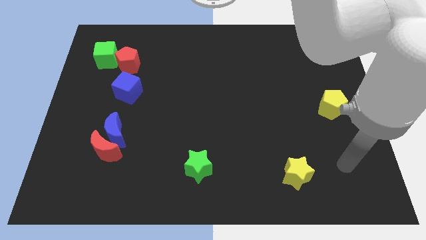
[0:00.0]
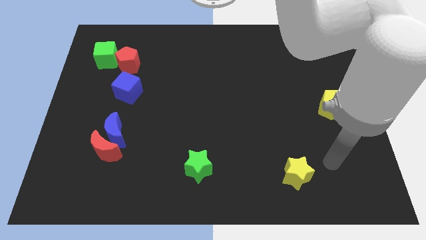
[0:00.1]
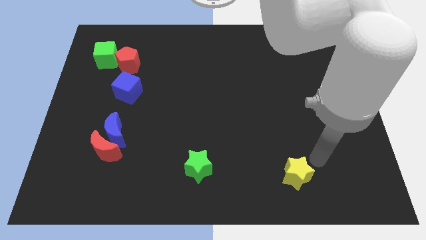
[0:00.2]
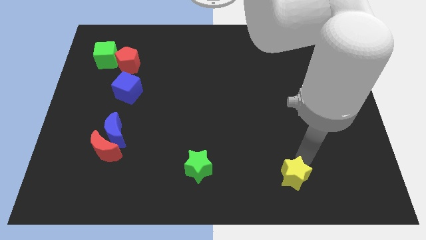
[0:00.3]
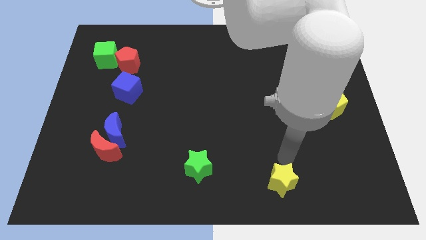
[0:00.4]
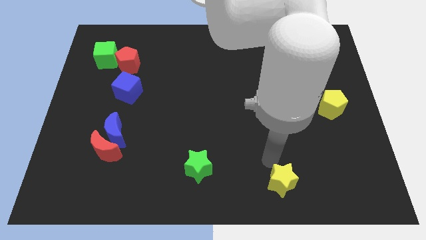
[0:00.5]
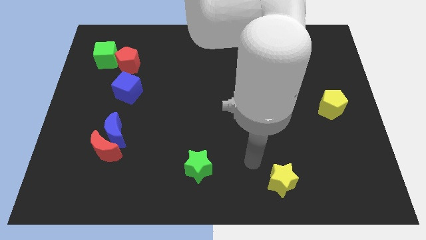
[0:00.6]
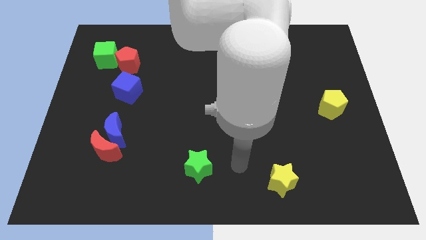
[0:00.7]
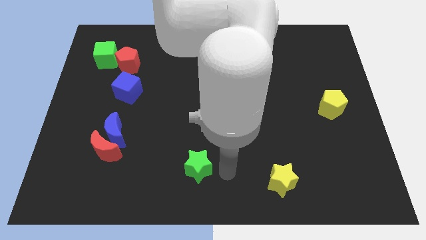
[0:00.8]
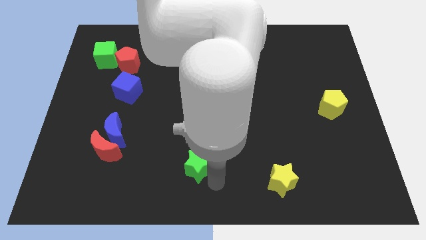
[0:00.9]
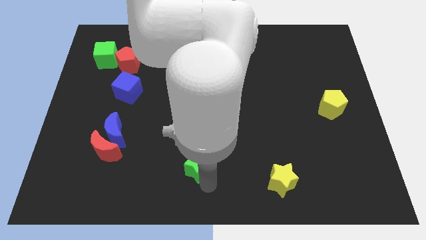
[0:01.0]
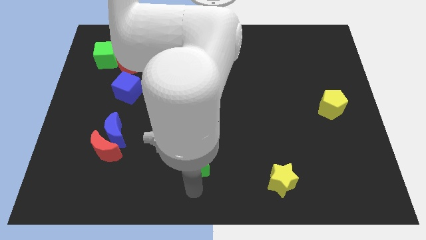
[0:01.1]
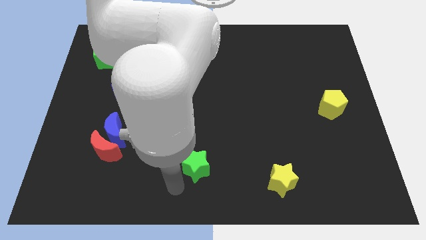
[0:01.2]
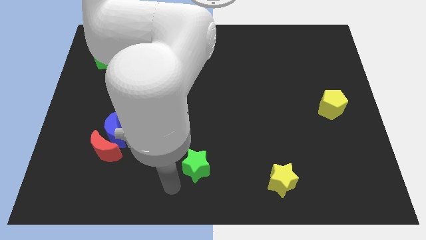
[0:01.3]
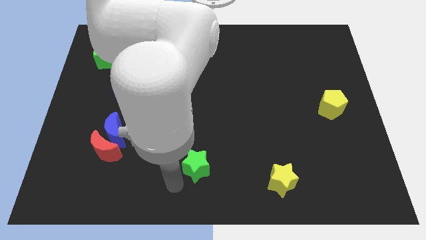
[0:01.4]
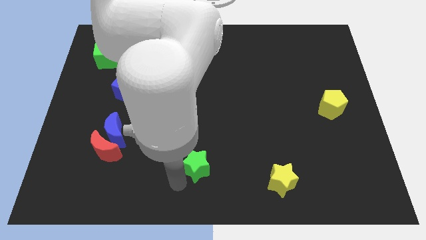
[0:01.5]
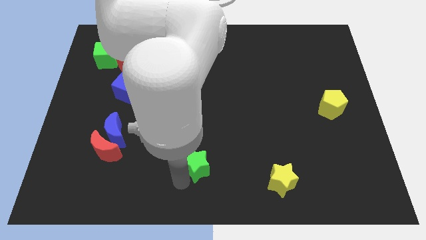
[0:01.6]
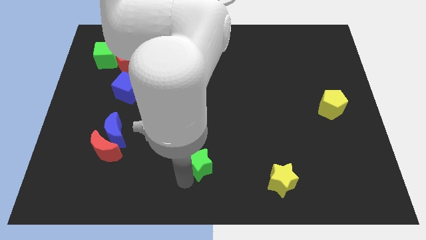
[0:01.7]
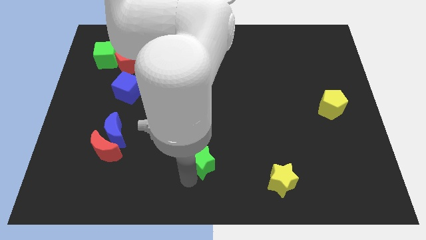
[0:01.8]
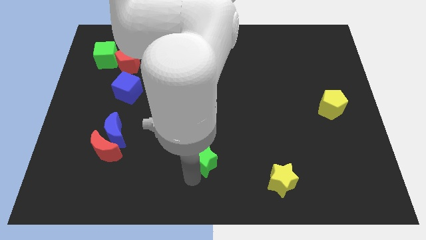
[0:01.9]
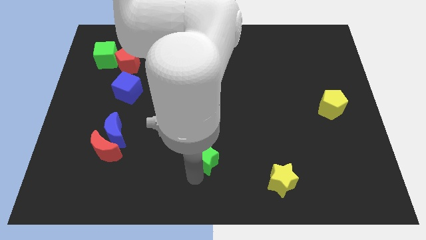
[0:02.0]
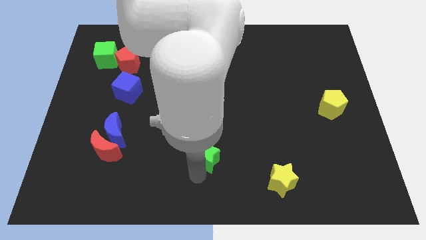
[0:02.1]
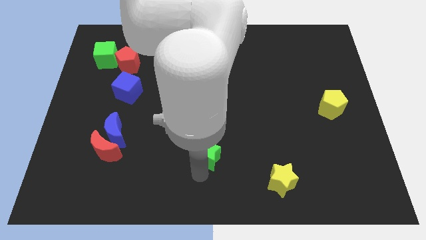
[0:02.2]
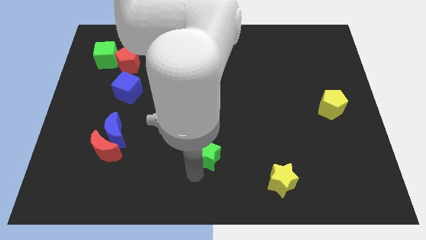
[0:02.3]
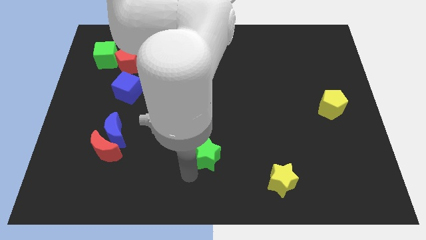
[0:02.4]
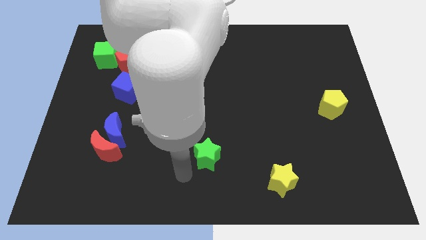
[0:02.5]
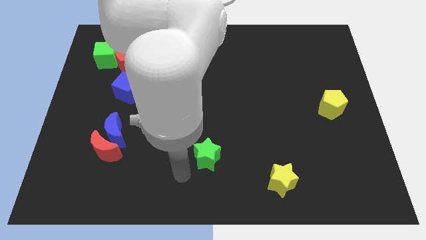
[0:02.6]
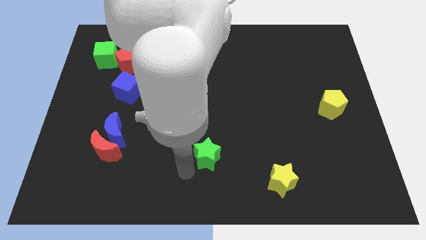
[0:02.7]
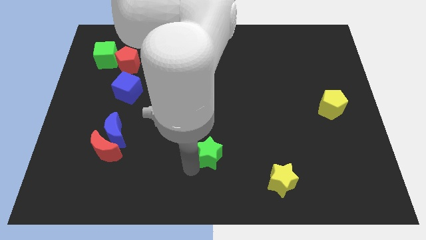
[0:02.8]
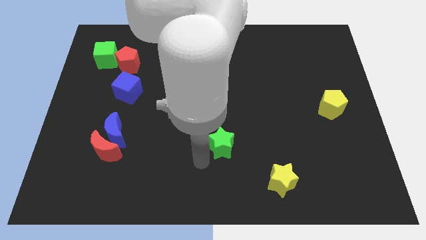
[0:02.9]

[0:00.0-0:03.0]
slightly slide the green star diagonally upwards and right

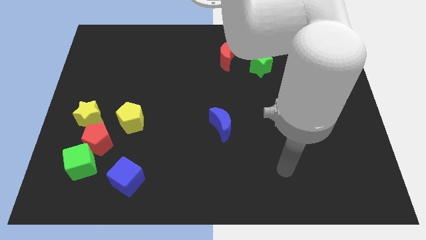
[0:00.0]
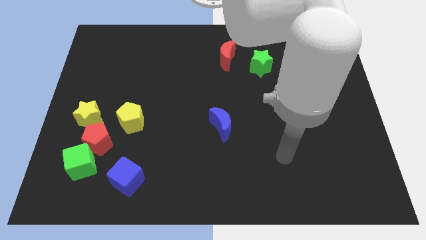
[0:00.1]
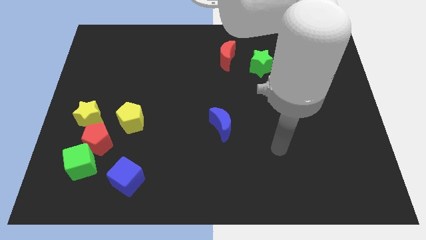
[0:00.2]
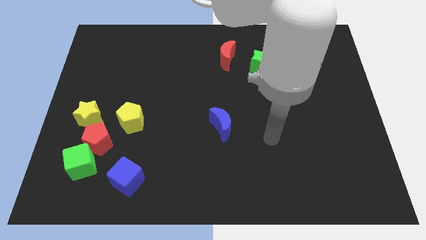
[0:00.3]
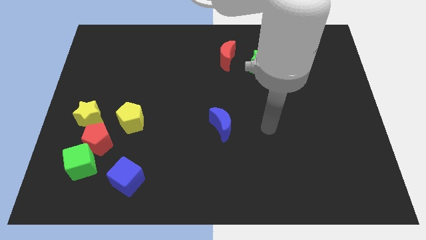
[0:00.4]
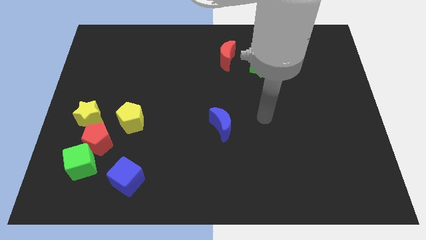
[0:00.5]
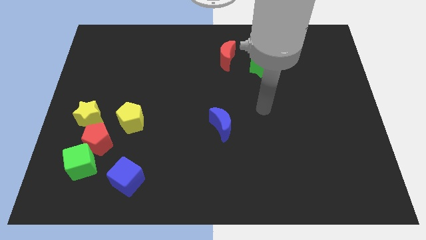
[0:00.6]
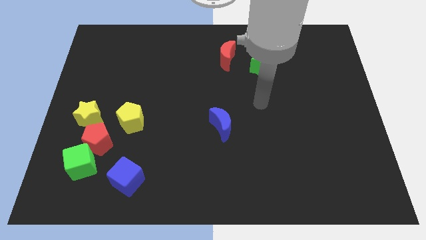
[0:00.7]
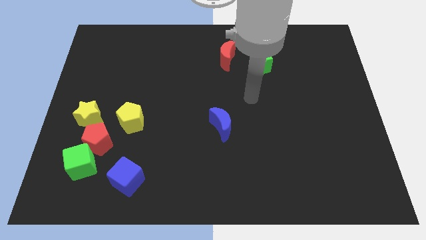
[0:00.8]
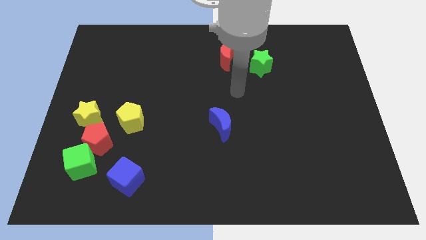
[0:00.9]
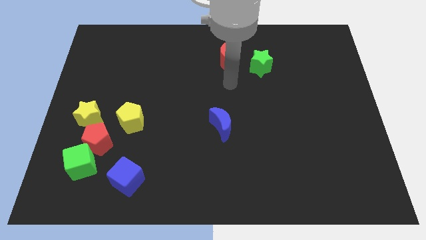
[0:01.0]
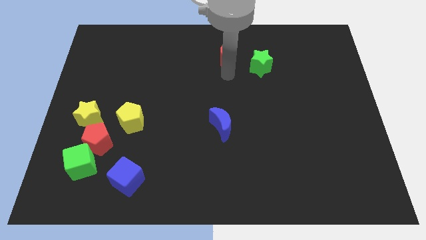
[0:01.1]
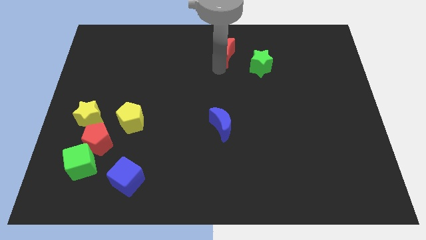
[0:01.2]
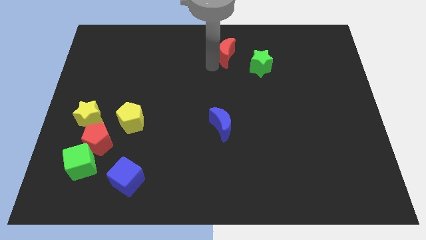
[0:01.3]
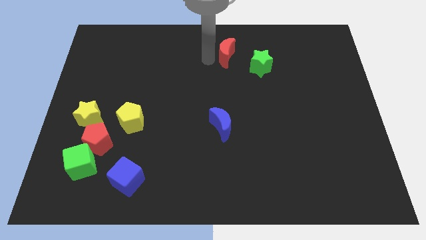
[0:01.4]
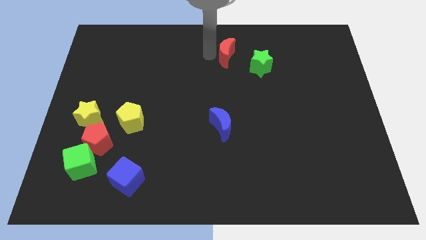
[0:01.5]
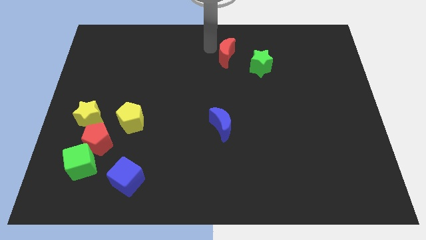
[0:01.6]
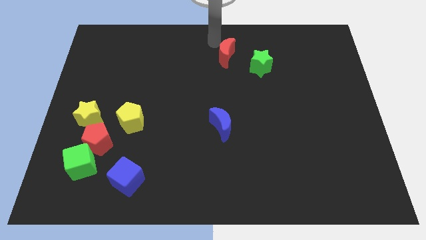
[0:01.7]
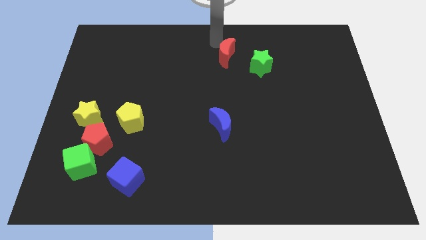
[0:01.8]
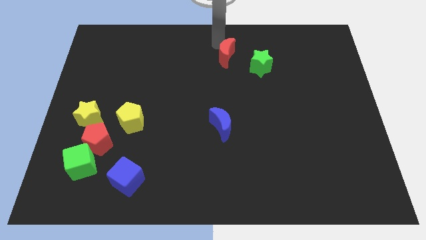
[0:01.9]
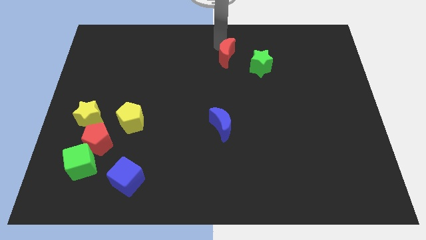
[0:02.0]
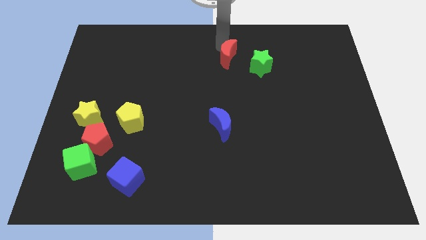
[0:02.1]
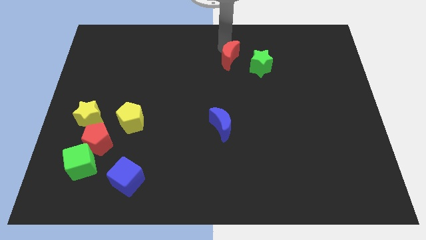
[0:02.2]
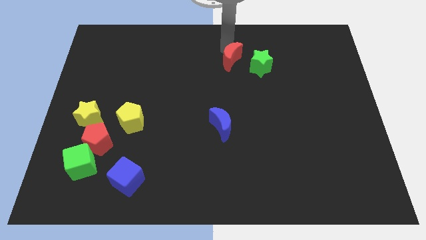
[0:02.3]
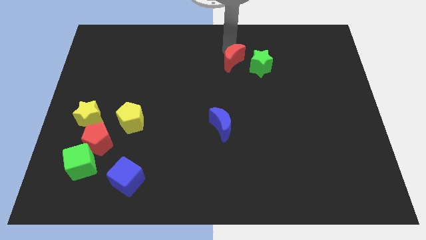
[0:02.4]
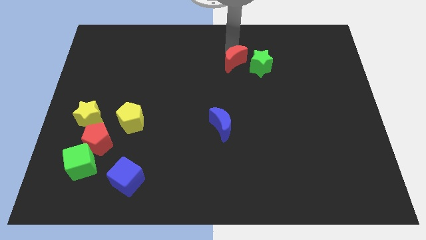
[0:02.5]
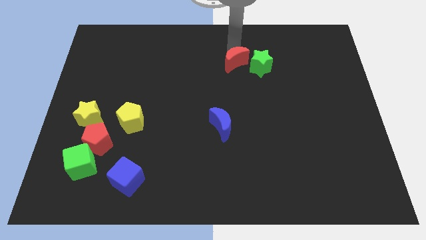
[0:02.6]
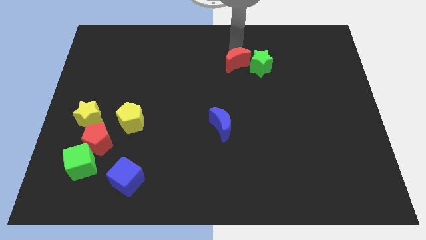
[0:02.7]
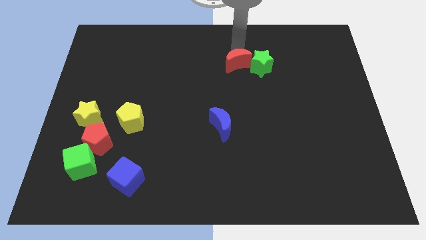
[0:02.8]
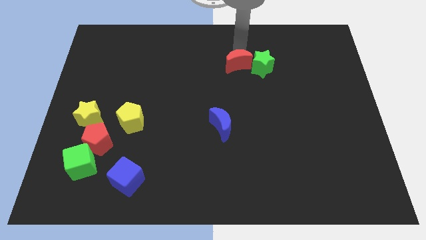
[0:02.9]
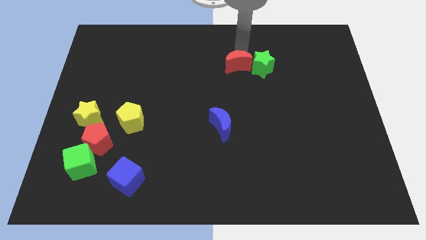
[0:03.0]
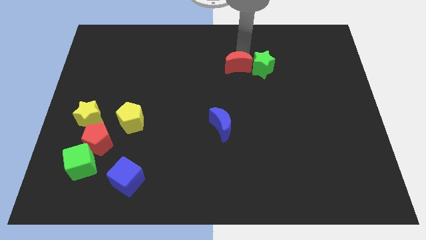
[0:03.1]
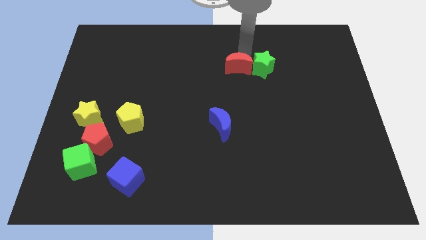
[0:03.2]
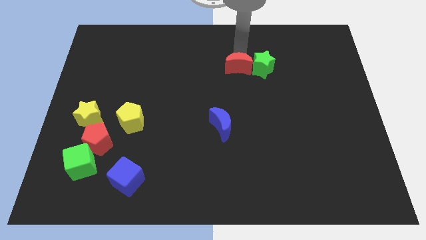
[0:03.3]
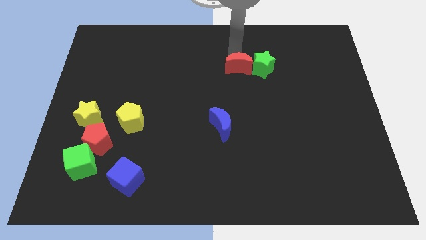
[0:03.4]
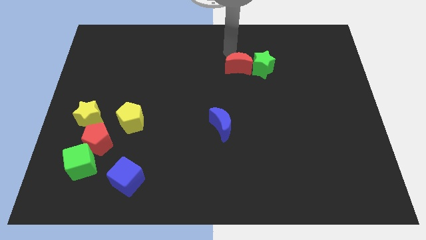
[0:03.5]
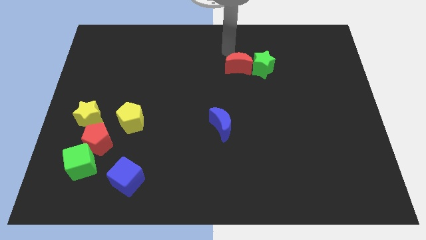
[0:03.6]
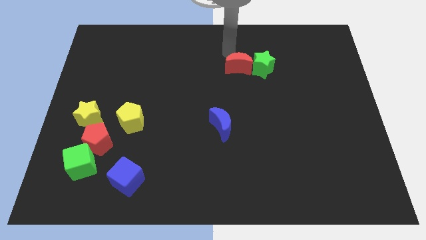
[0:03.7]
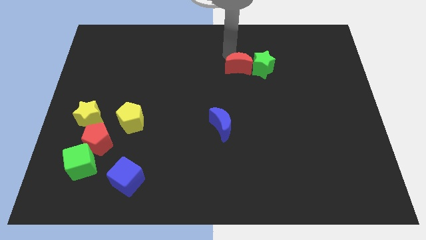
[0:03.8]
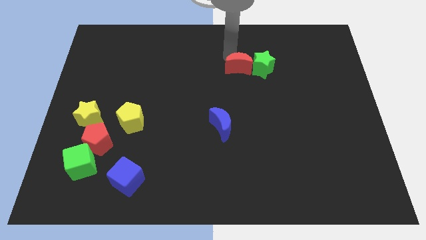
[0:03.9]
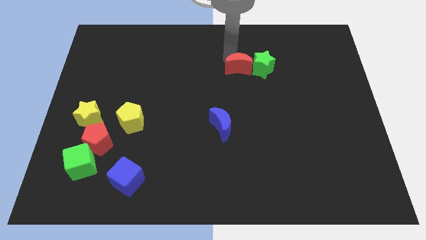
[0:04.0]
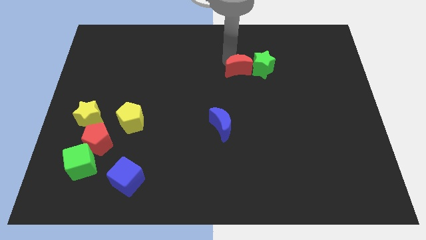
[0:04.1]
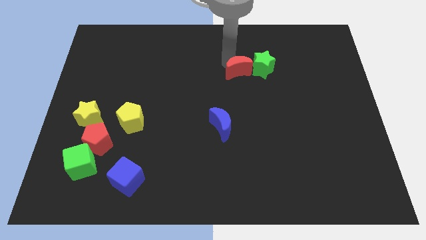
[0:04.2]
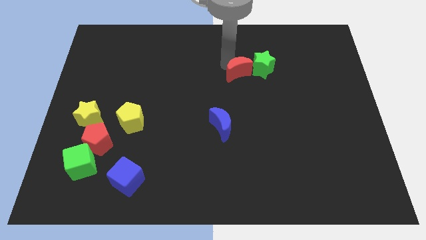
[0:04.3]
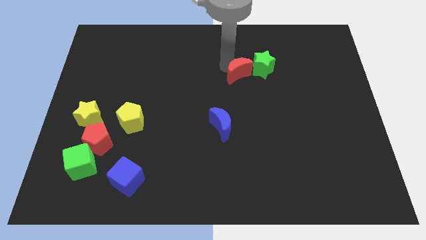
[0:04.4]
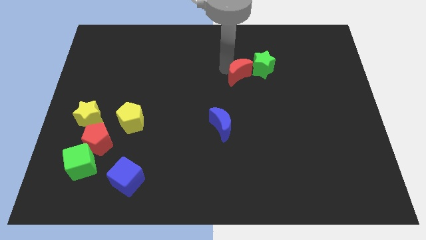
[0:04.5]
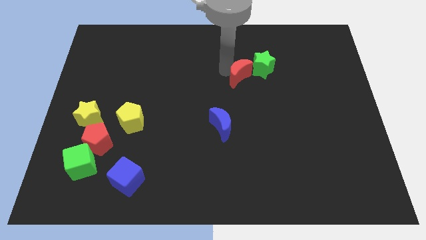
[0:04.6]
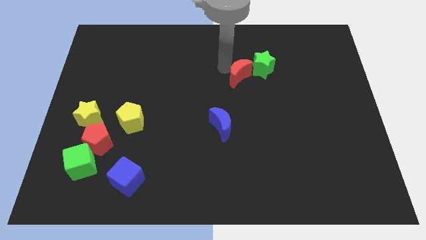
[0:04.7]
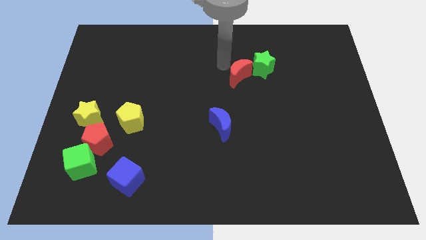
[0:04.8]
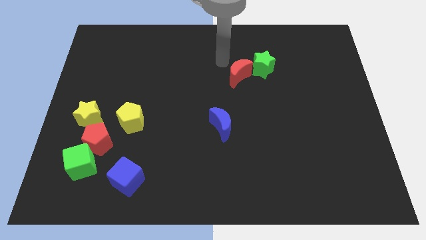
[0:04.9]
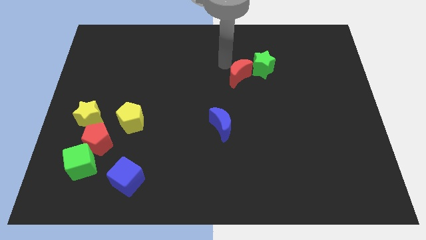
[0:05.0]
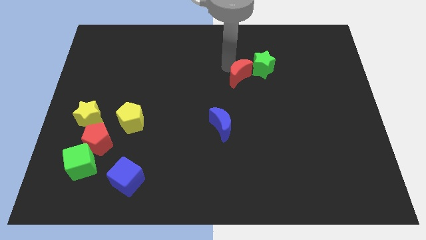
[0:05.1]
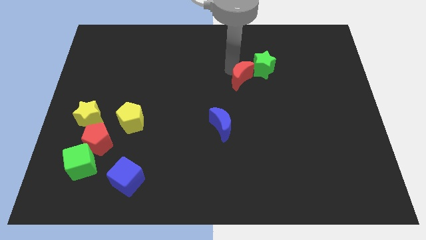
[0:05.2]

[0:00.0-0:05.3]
slide the red moon down and right a little
